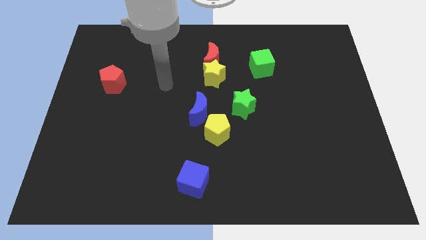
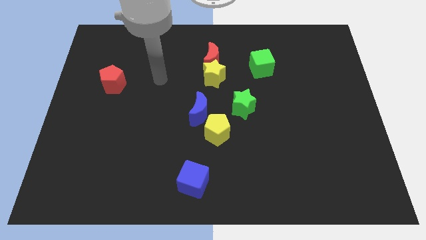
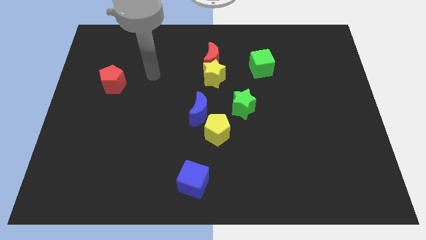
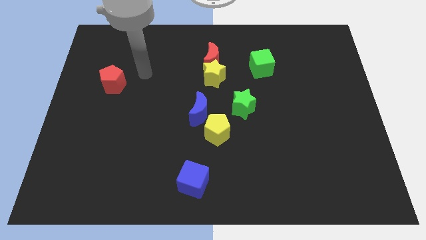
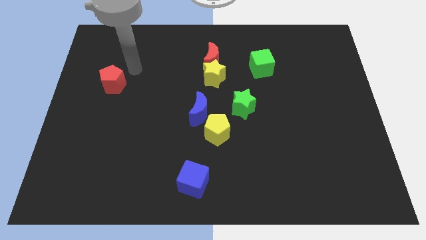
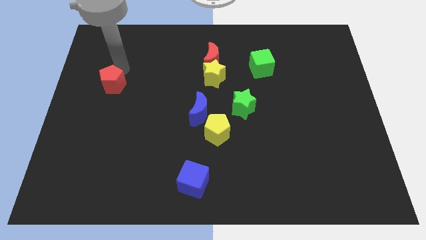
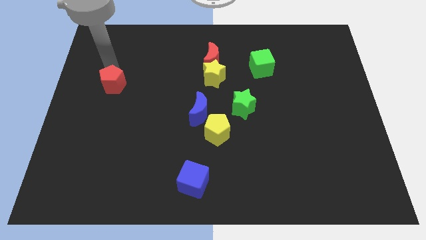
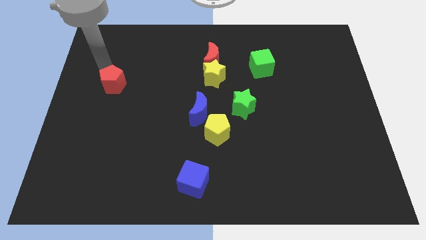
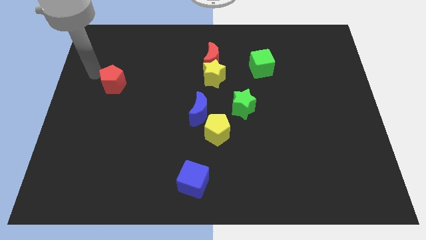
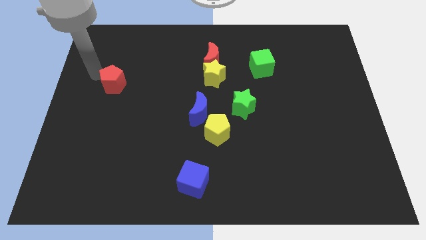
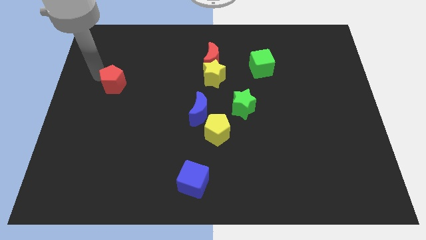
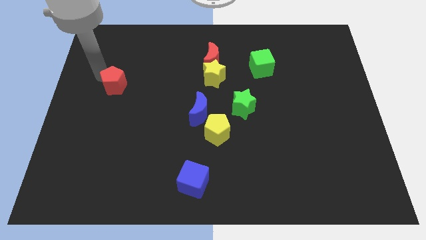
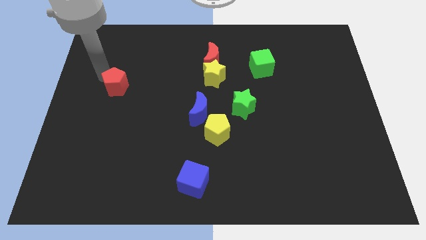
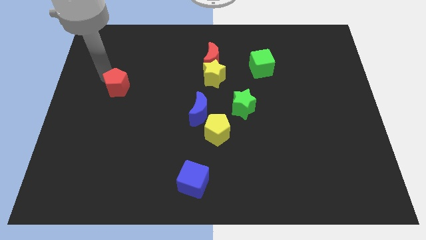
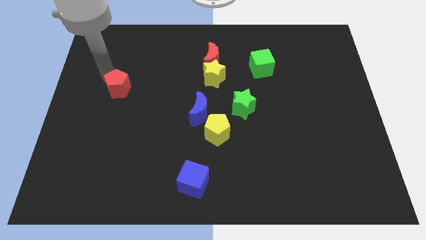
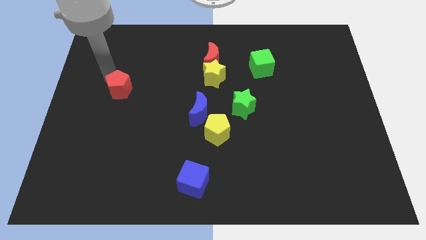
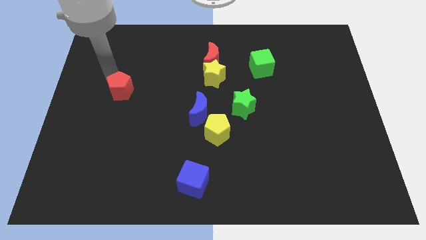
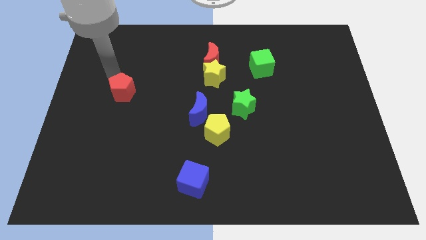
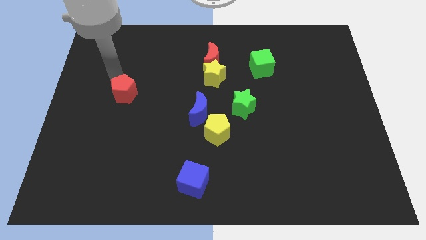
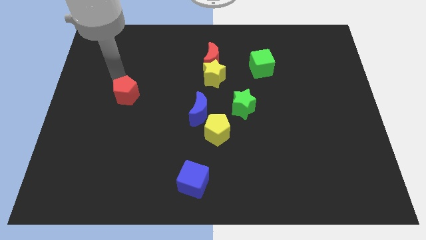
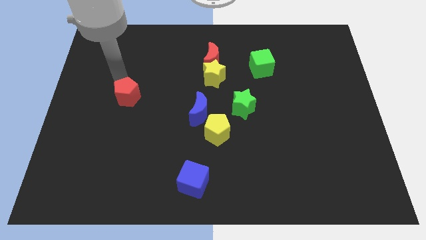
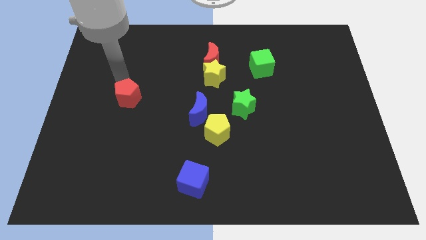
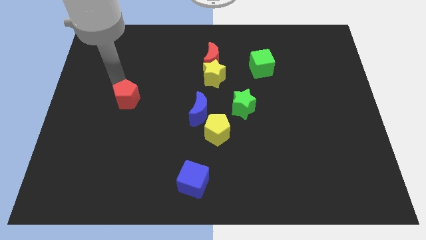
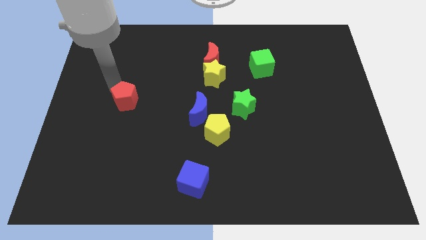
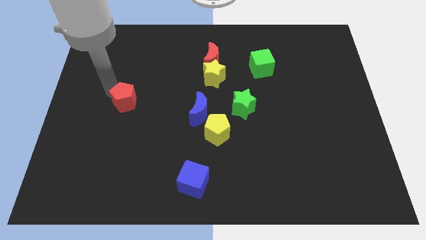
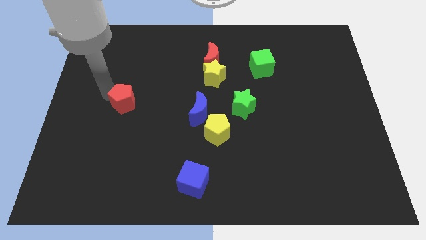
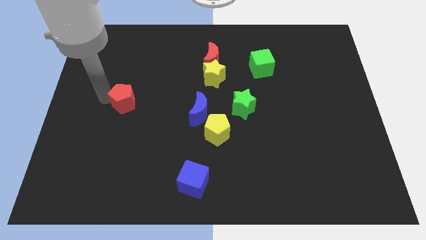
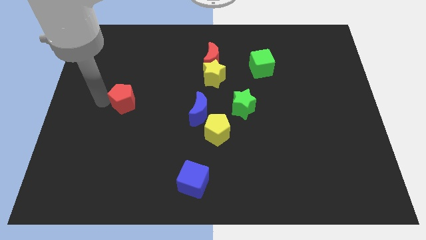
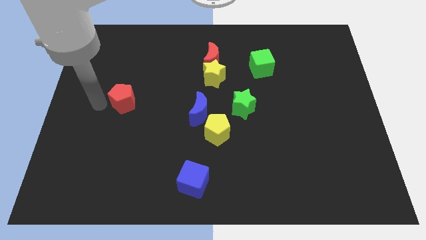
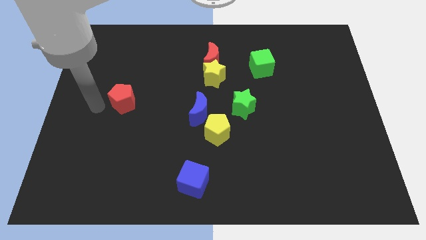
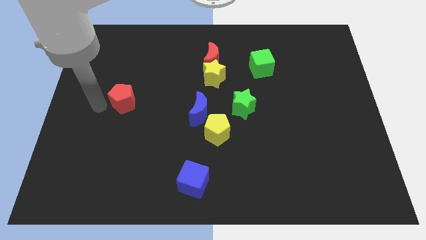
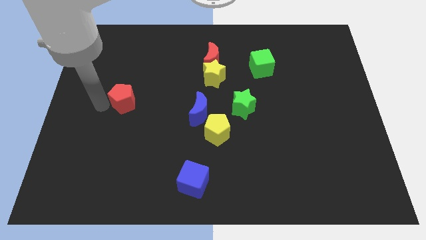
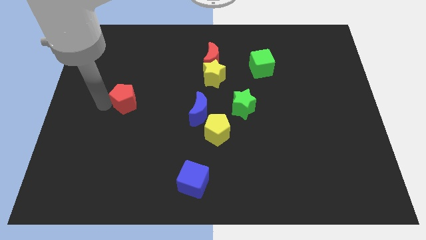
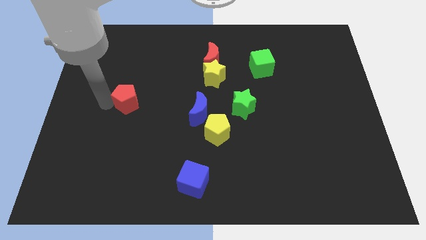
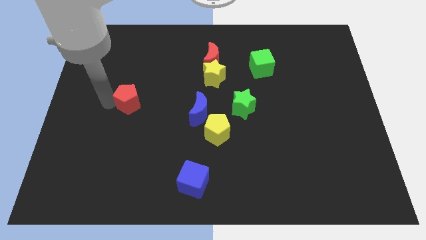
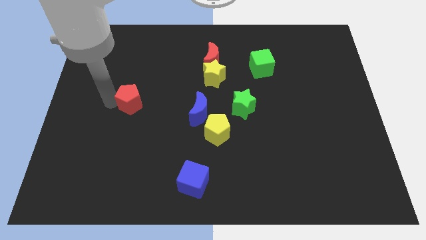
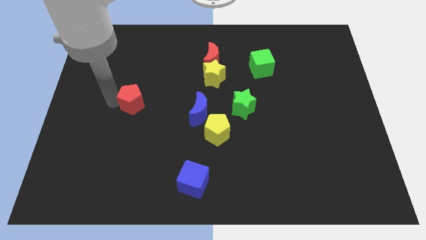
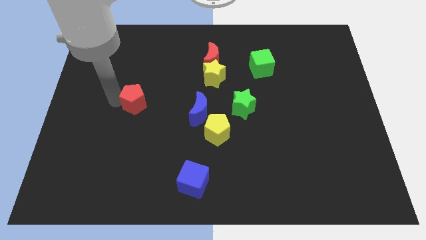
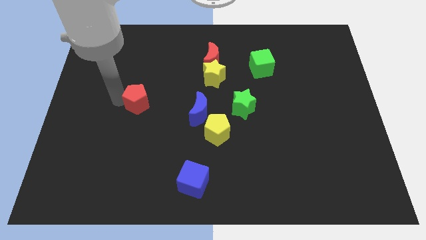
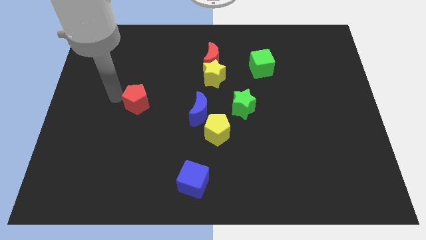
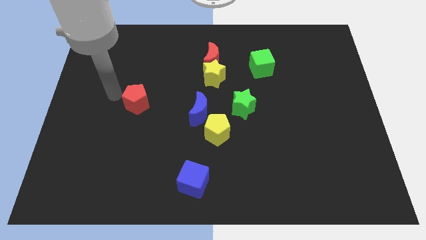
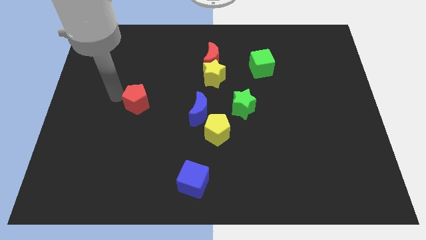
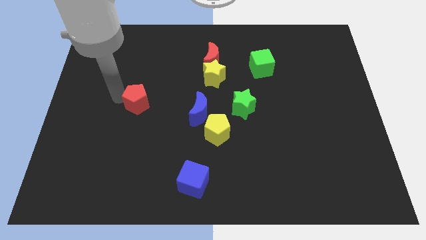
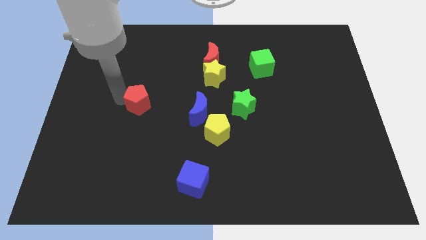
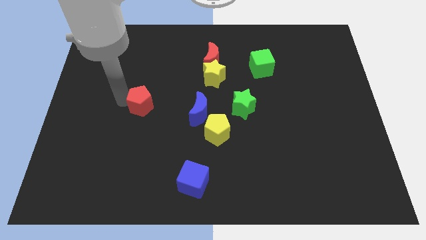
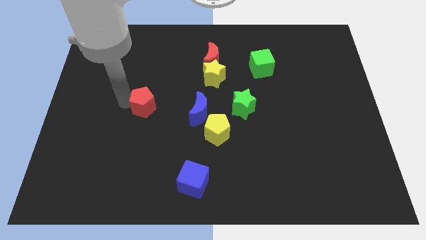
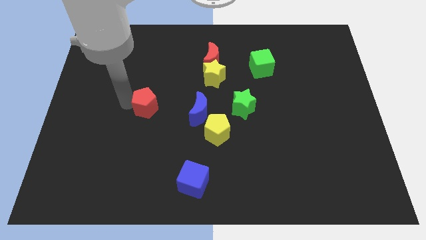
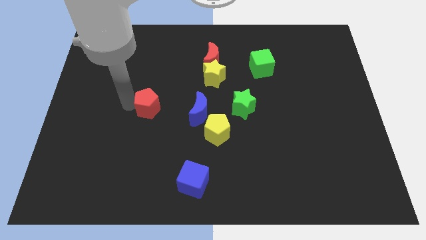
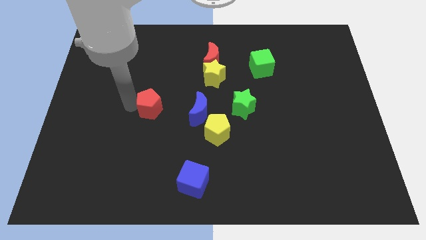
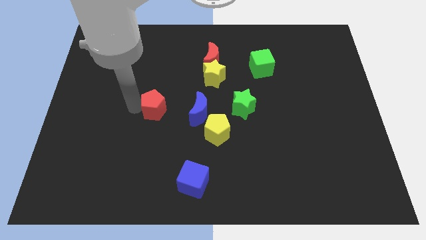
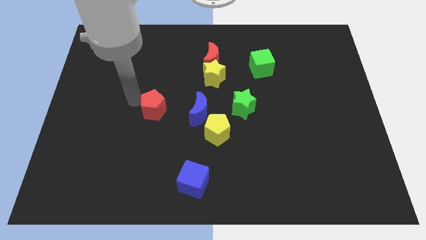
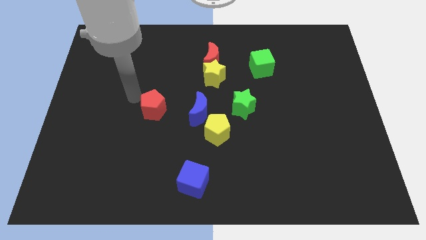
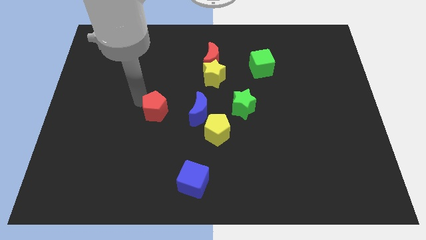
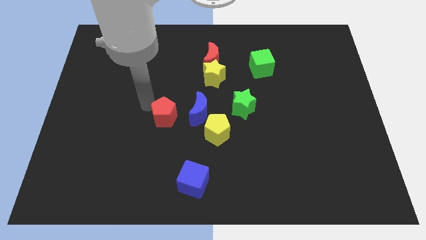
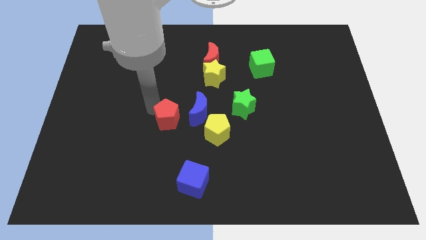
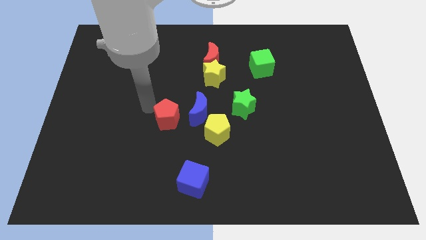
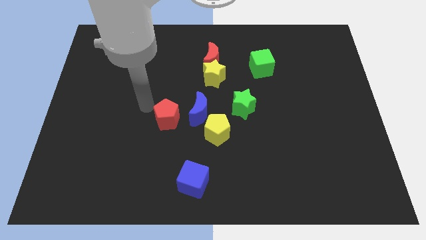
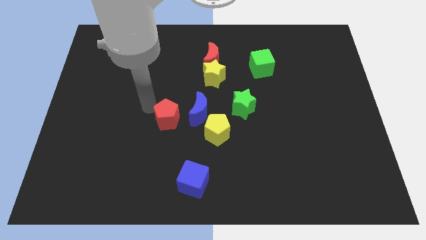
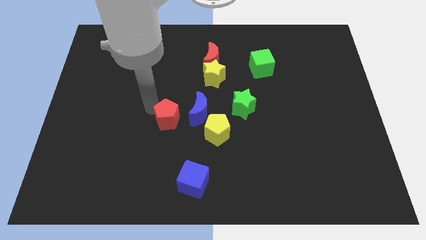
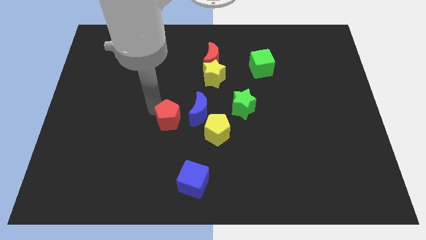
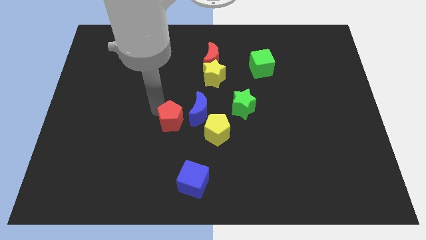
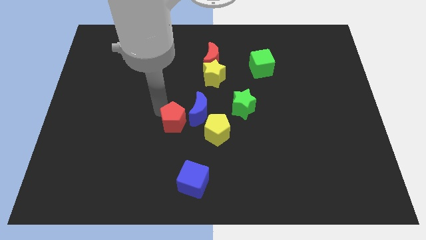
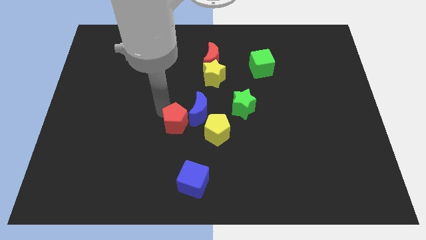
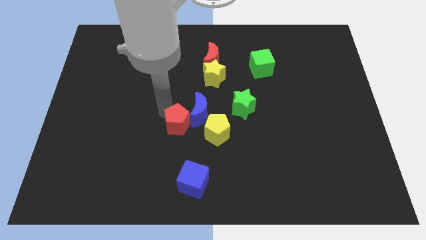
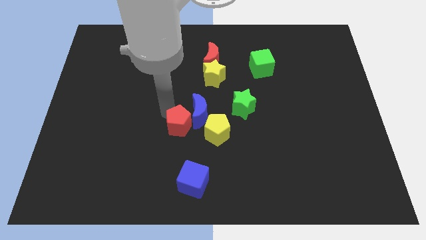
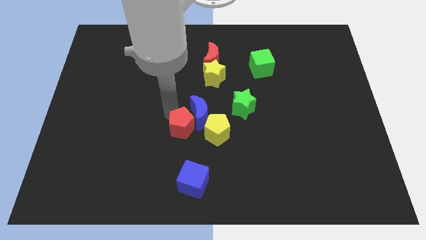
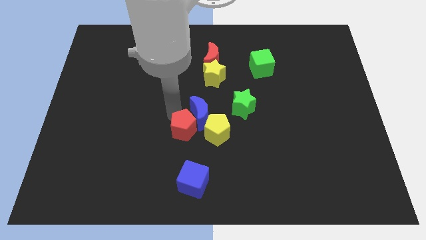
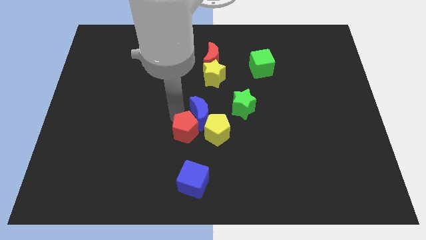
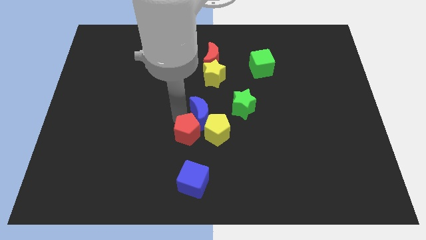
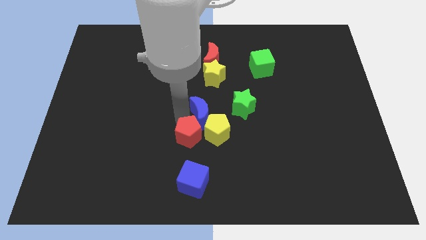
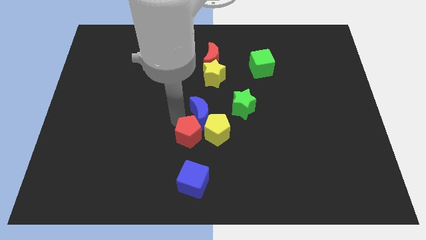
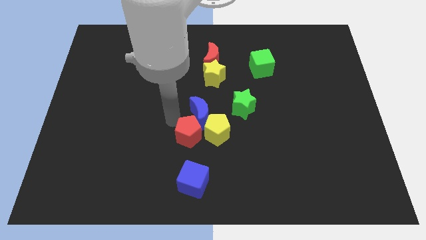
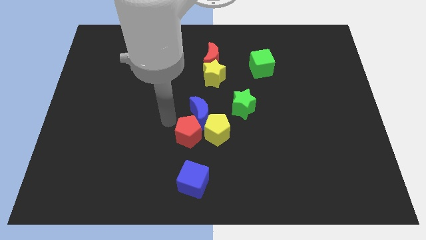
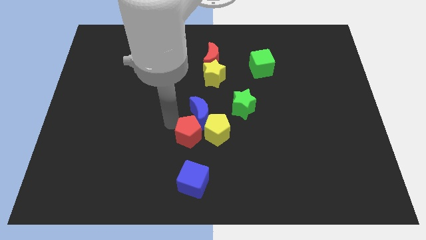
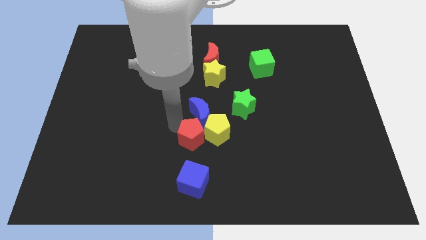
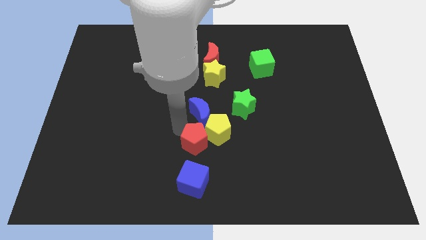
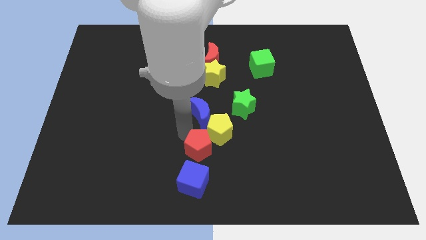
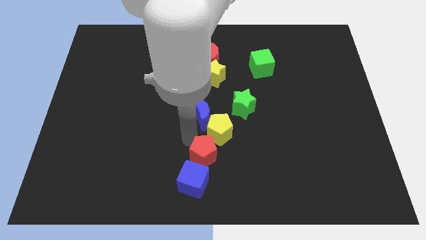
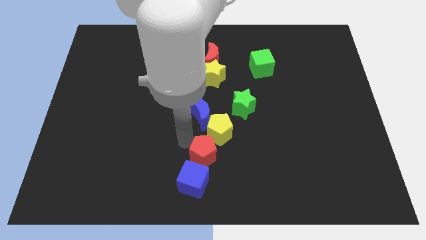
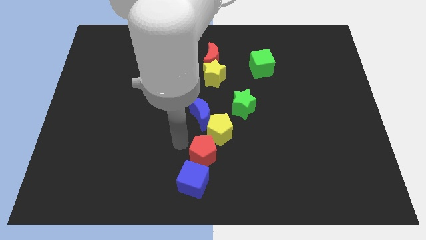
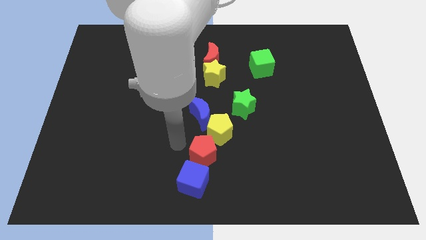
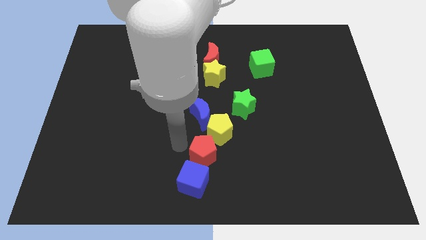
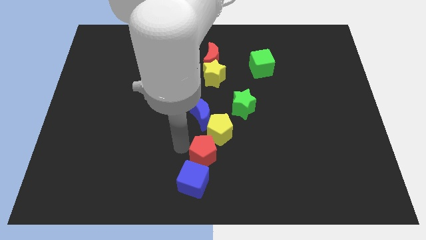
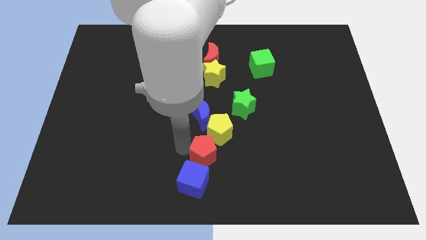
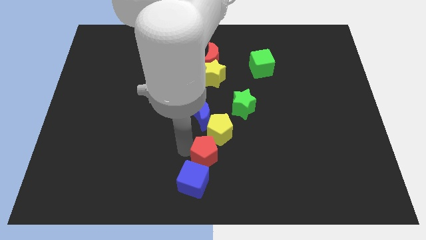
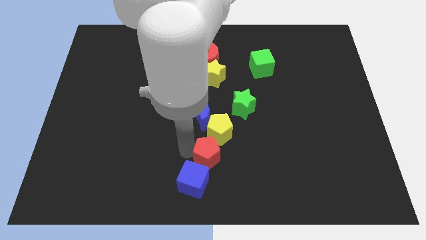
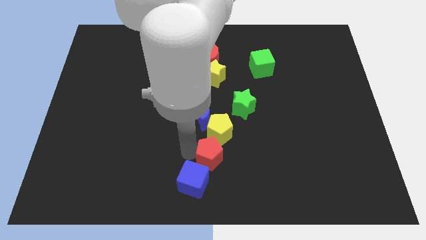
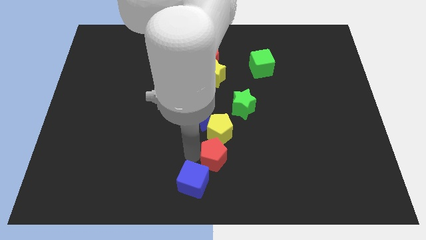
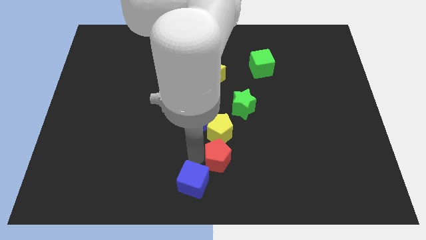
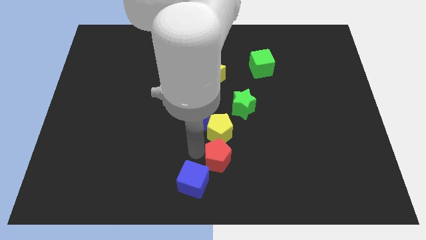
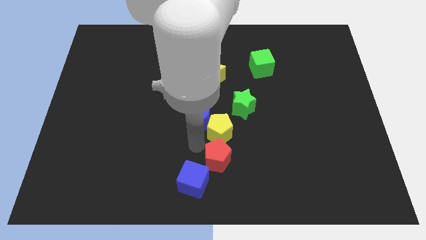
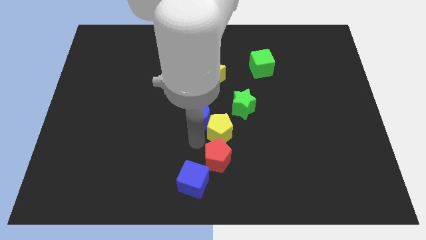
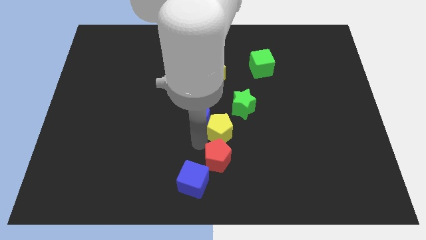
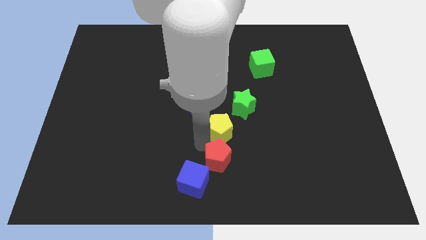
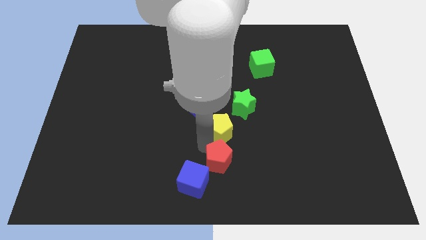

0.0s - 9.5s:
put the red pentagon to the right of the blue cube
